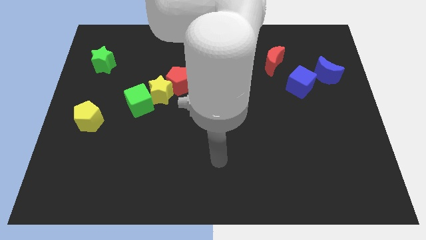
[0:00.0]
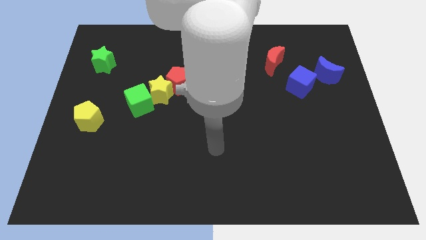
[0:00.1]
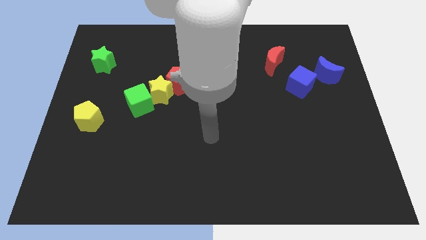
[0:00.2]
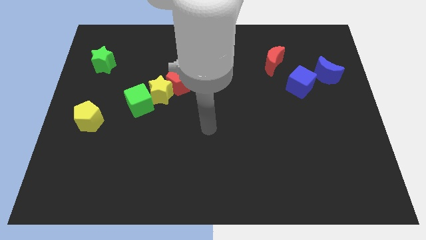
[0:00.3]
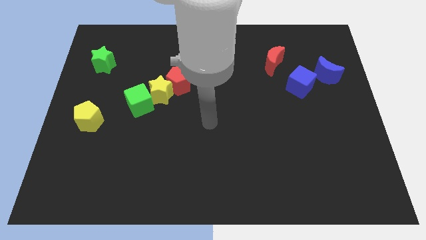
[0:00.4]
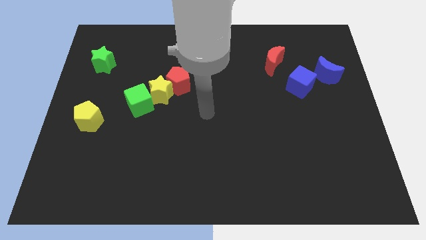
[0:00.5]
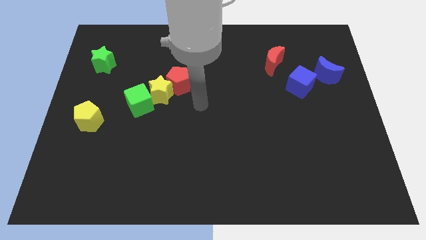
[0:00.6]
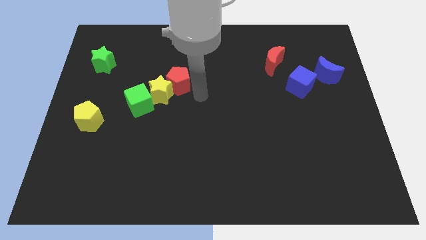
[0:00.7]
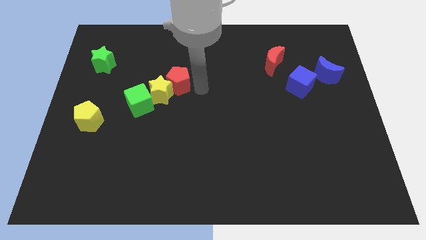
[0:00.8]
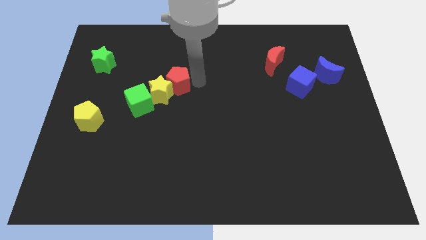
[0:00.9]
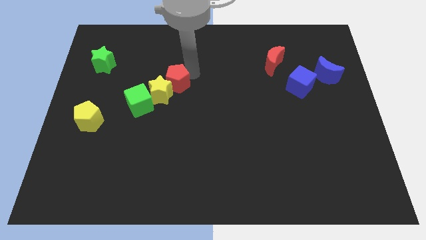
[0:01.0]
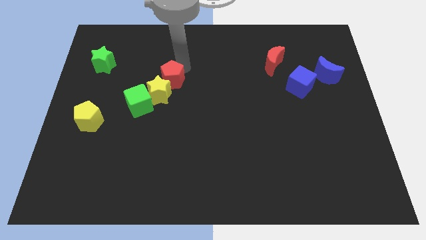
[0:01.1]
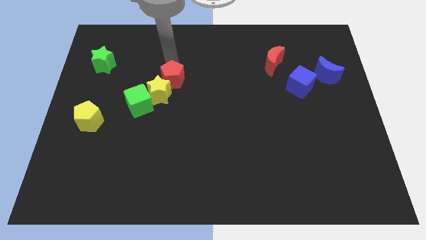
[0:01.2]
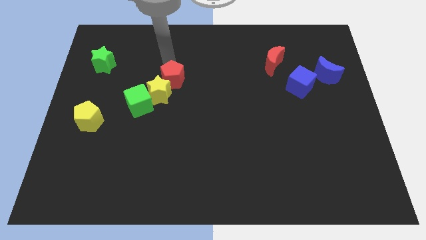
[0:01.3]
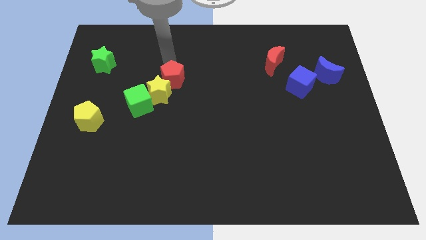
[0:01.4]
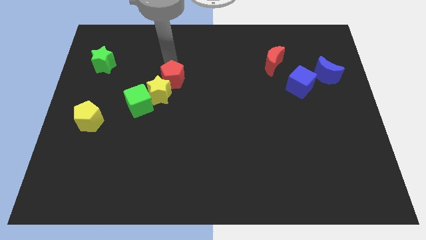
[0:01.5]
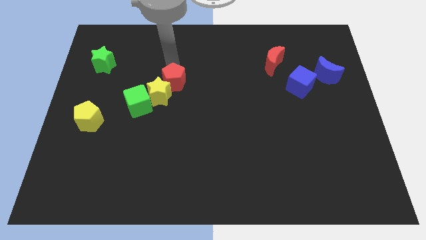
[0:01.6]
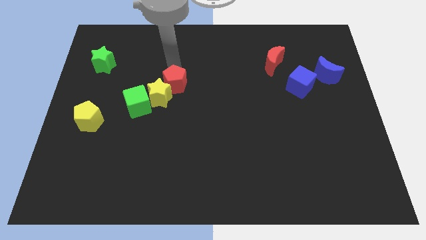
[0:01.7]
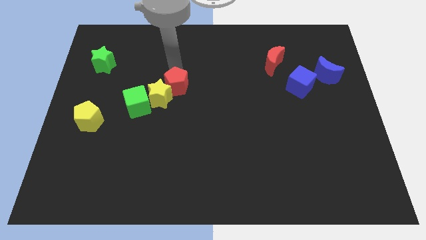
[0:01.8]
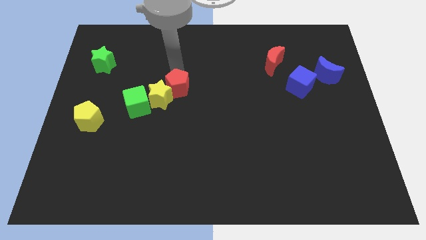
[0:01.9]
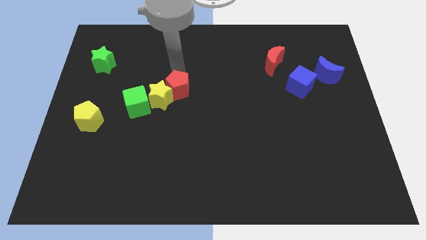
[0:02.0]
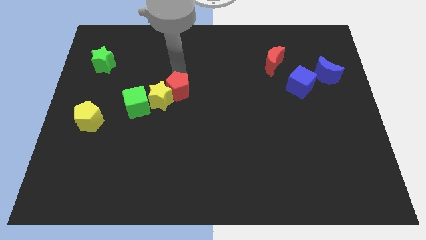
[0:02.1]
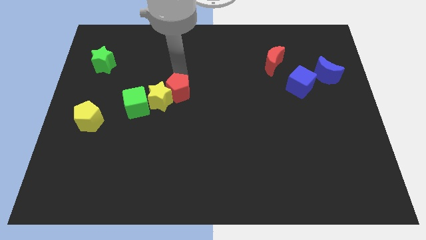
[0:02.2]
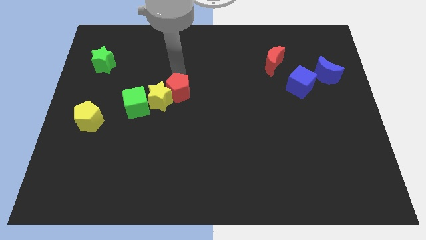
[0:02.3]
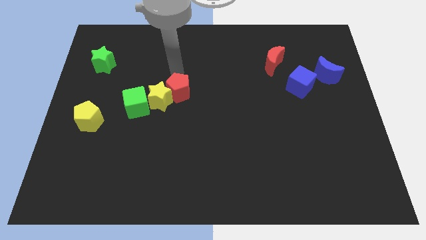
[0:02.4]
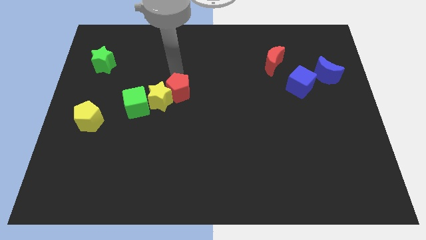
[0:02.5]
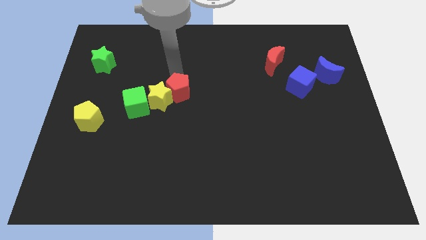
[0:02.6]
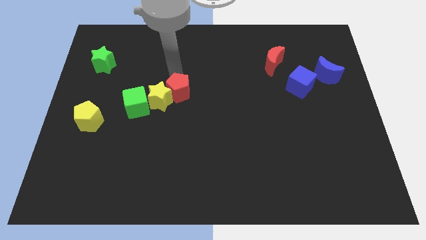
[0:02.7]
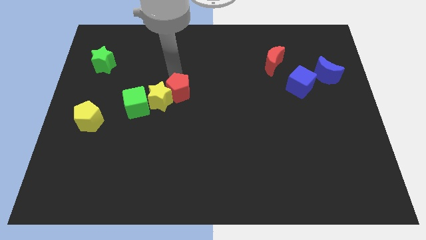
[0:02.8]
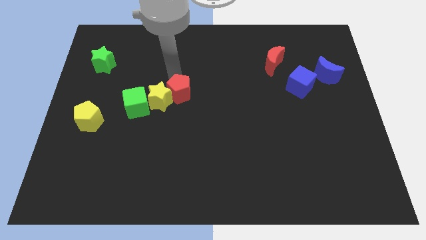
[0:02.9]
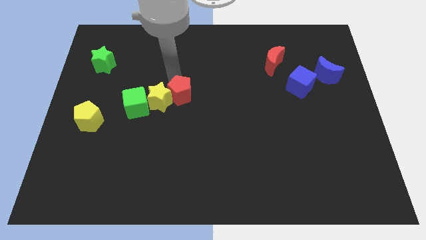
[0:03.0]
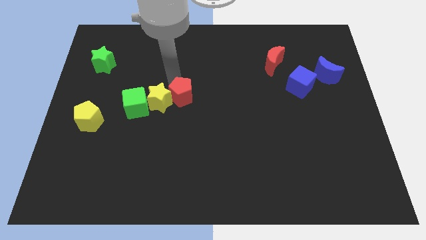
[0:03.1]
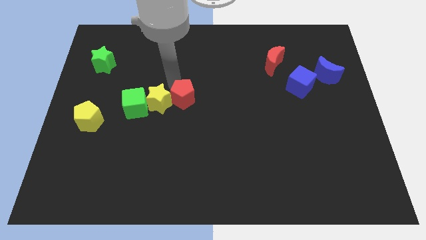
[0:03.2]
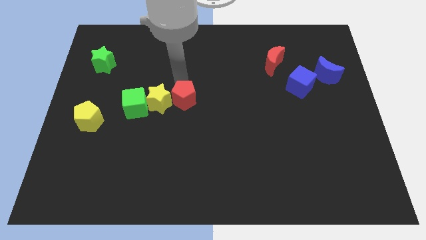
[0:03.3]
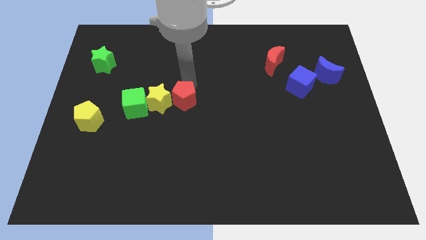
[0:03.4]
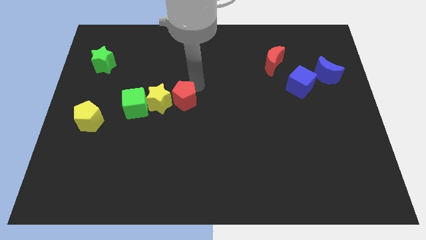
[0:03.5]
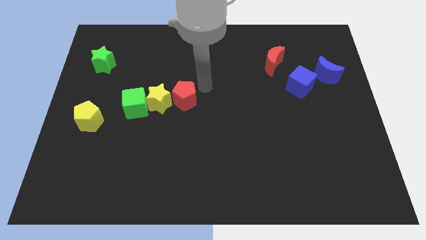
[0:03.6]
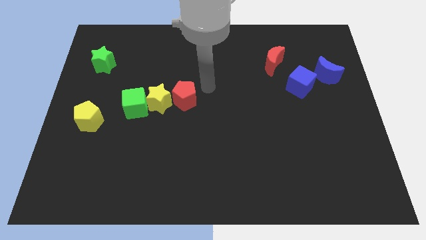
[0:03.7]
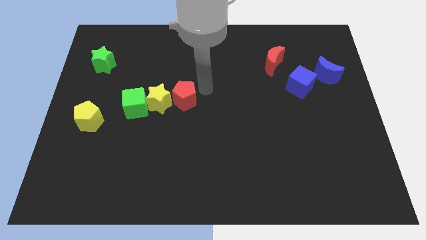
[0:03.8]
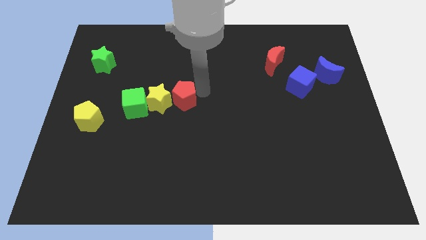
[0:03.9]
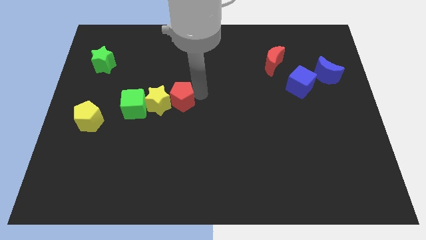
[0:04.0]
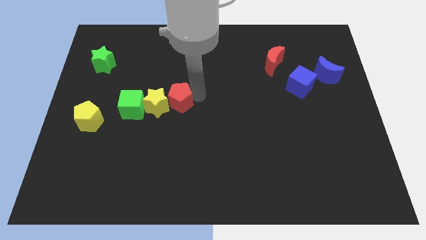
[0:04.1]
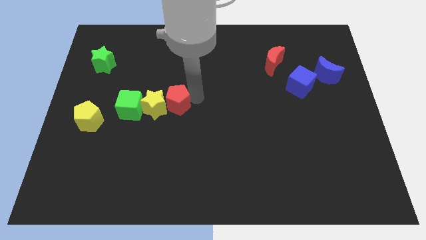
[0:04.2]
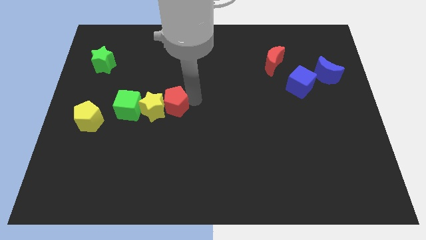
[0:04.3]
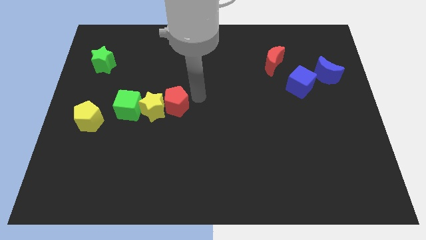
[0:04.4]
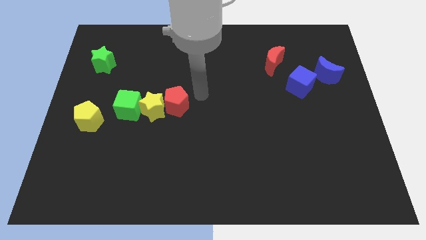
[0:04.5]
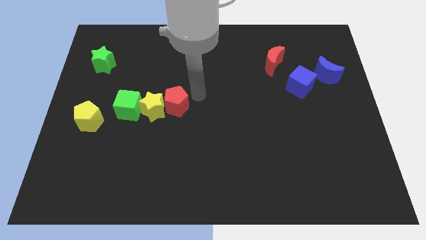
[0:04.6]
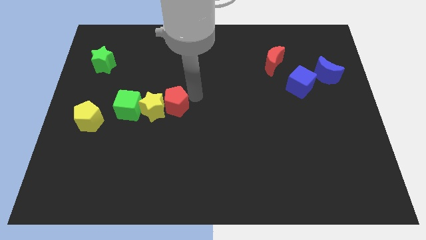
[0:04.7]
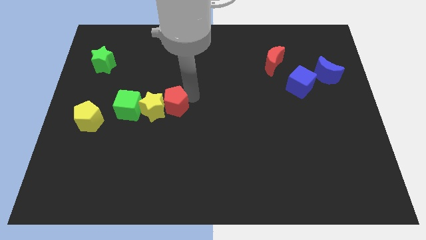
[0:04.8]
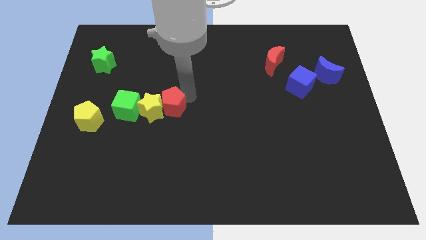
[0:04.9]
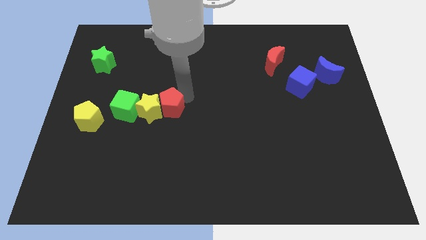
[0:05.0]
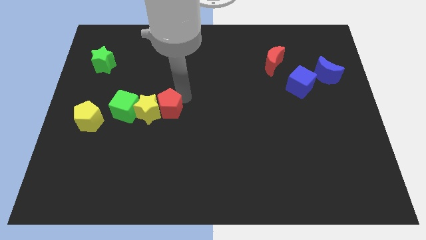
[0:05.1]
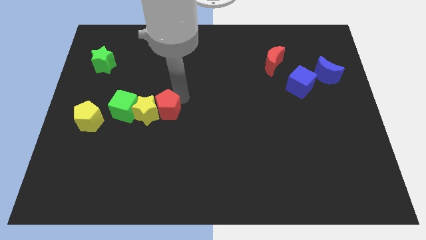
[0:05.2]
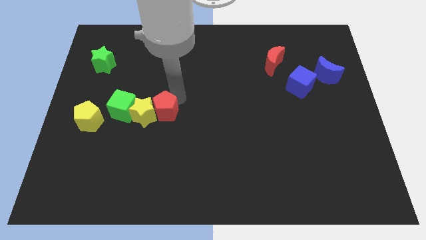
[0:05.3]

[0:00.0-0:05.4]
slightly slide the red pentagon downwards and to the left diagonally

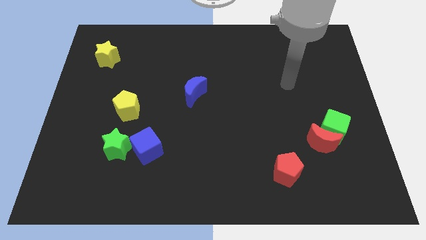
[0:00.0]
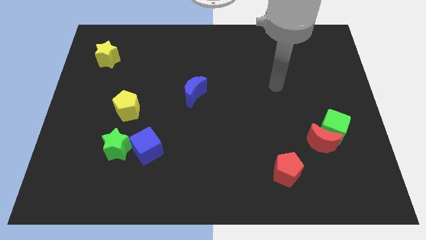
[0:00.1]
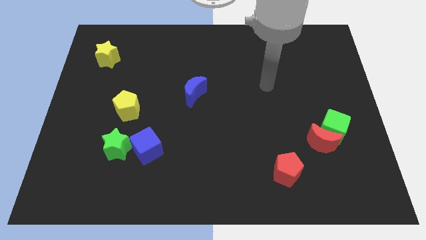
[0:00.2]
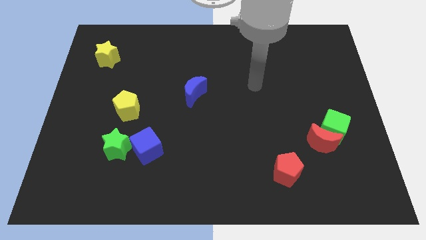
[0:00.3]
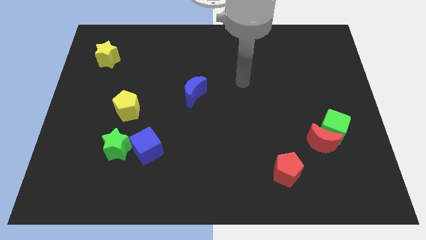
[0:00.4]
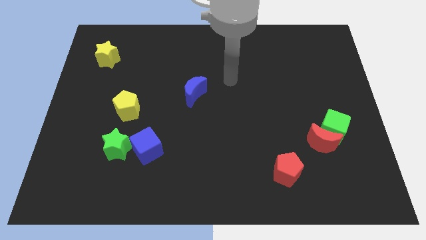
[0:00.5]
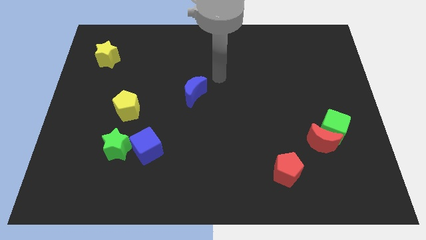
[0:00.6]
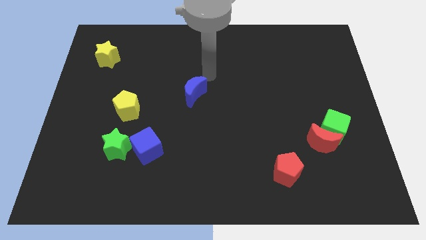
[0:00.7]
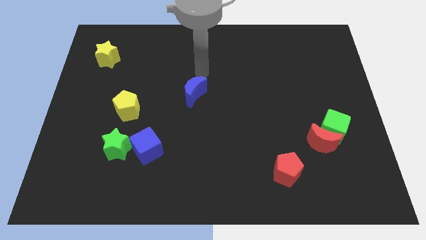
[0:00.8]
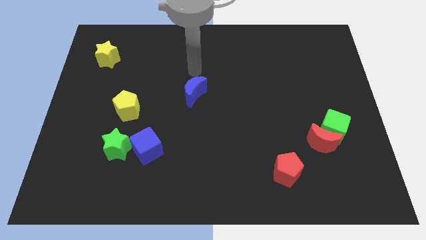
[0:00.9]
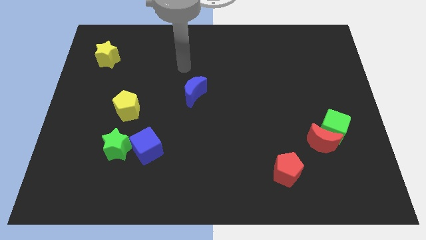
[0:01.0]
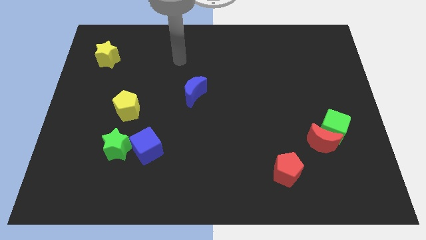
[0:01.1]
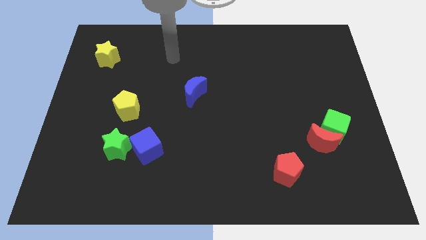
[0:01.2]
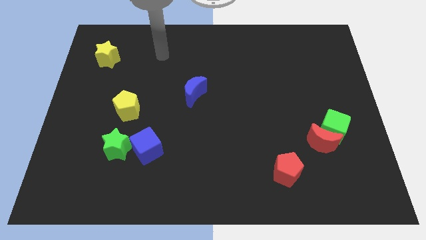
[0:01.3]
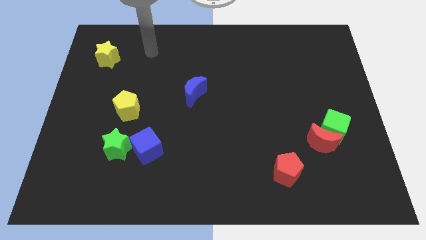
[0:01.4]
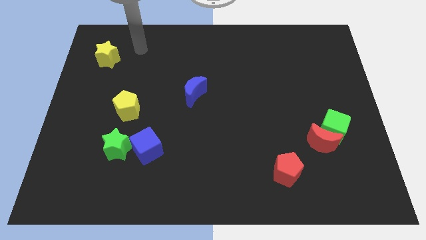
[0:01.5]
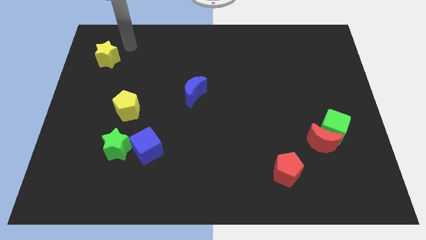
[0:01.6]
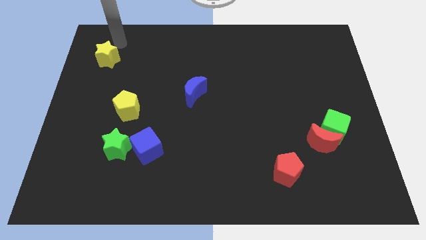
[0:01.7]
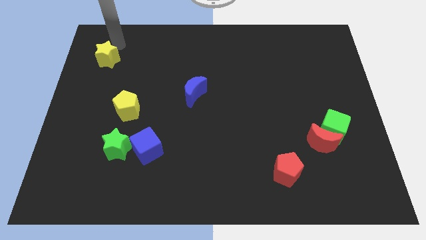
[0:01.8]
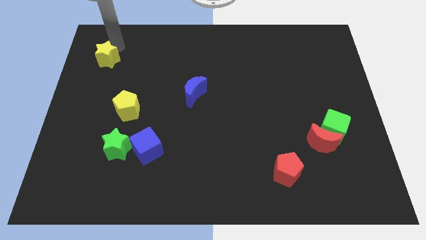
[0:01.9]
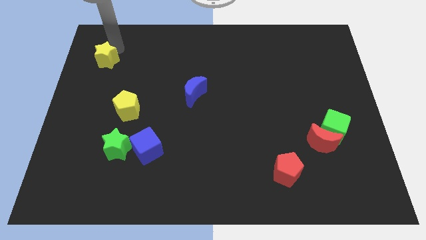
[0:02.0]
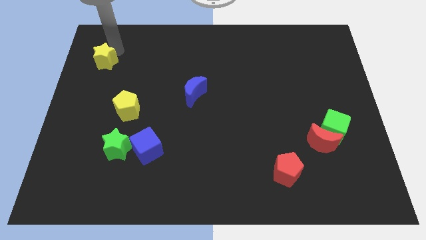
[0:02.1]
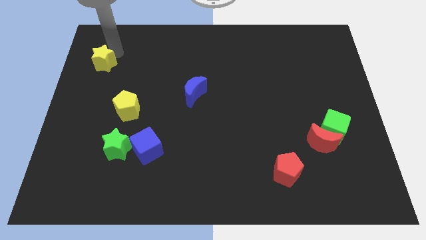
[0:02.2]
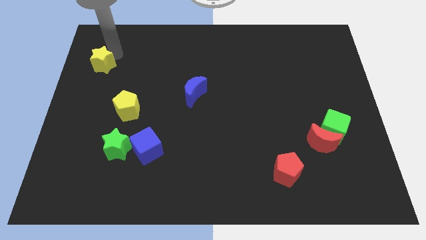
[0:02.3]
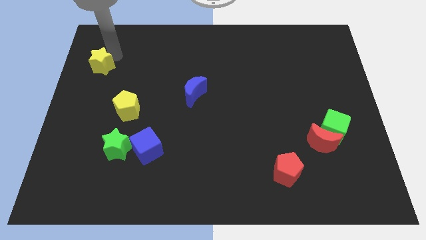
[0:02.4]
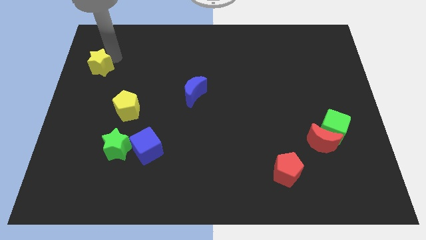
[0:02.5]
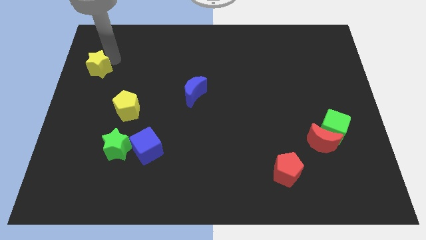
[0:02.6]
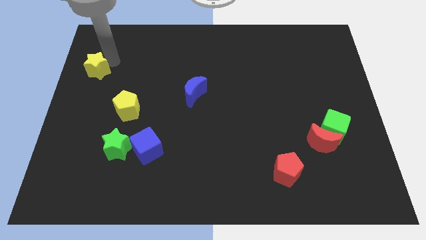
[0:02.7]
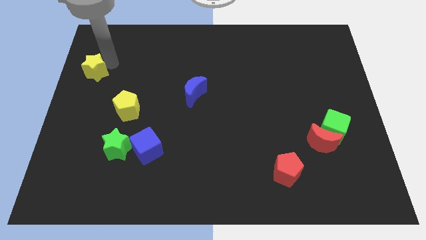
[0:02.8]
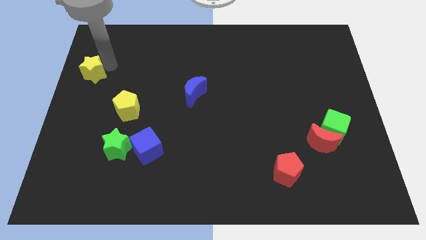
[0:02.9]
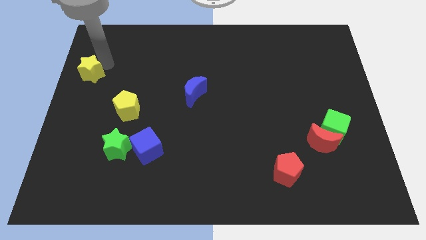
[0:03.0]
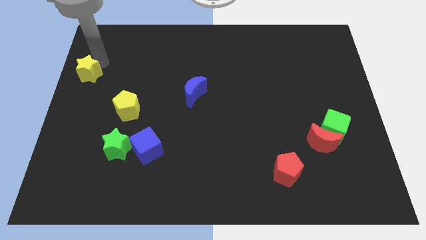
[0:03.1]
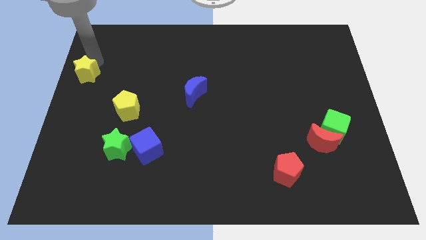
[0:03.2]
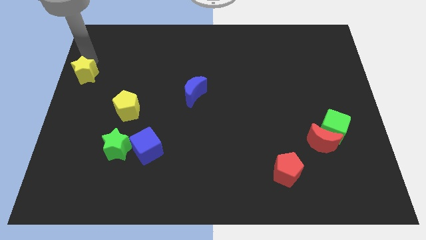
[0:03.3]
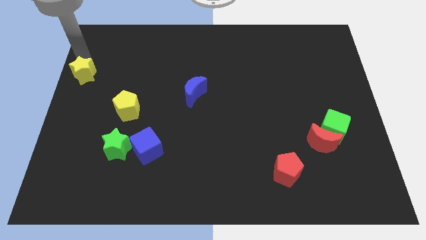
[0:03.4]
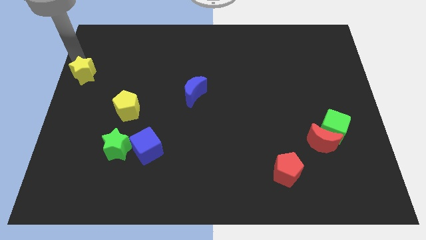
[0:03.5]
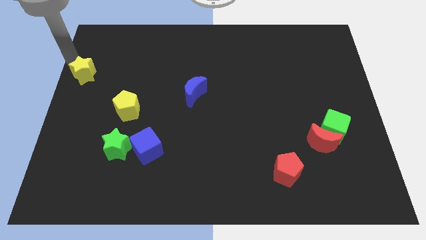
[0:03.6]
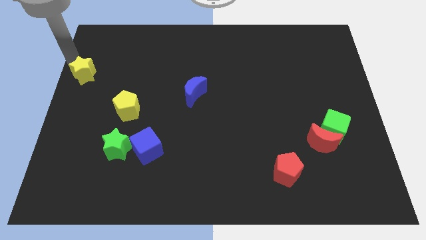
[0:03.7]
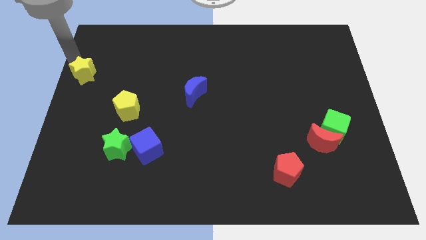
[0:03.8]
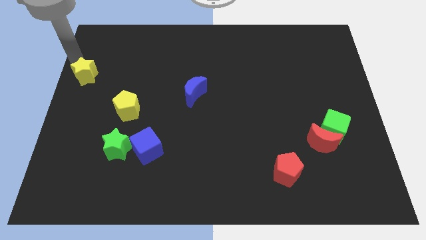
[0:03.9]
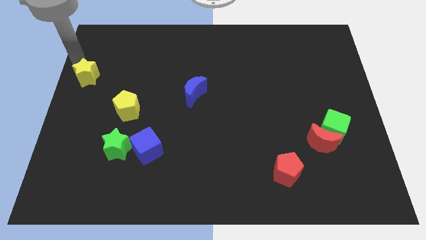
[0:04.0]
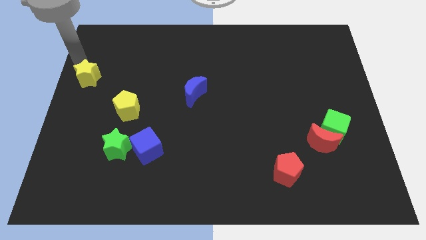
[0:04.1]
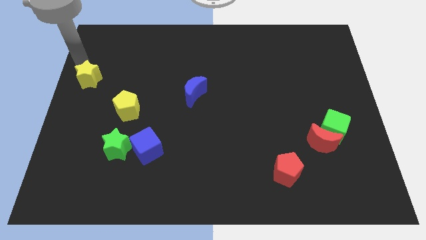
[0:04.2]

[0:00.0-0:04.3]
push the yellow star downwards a little bit
